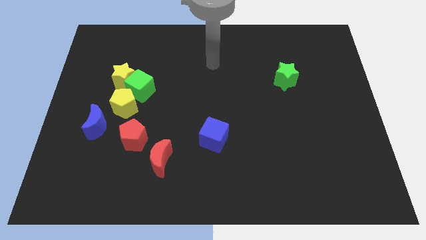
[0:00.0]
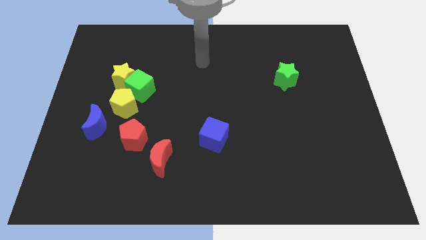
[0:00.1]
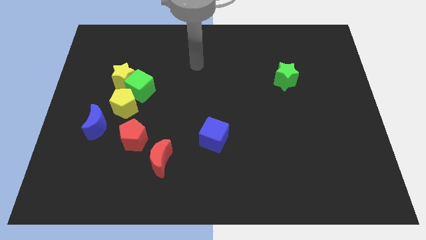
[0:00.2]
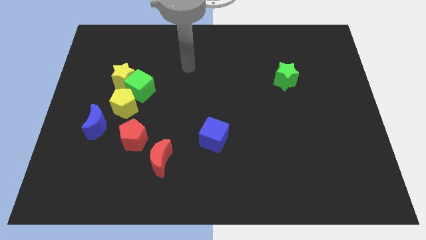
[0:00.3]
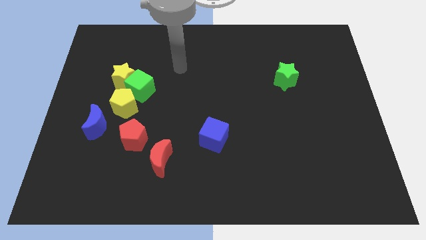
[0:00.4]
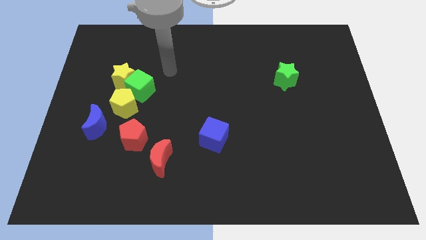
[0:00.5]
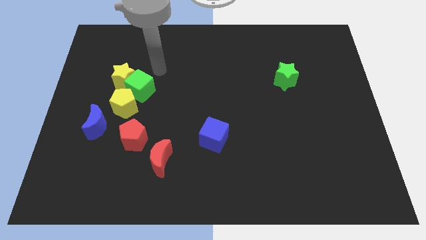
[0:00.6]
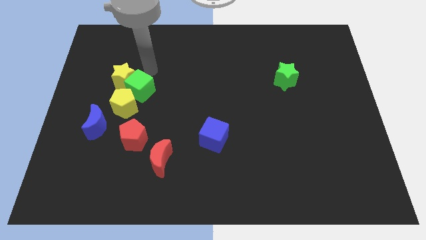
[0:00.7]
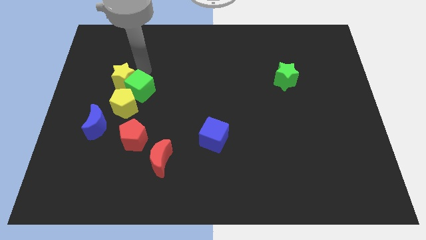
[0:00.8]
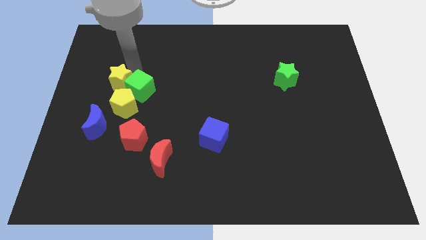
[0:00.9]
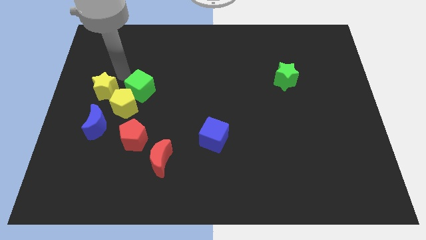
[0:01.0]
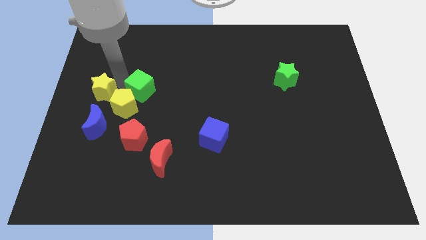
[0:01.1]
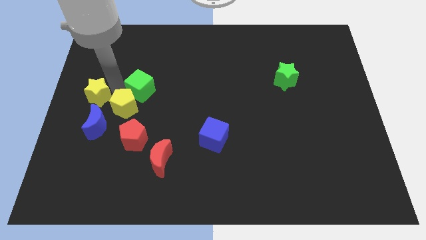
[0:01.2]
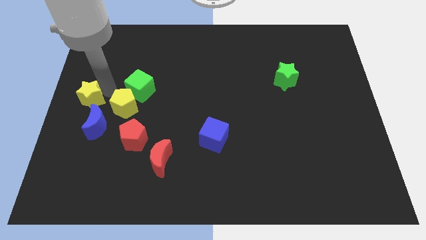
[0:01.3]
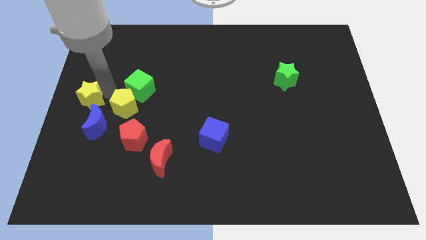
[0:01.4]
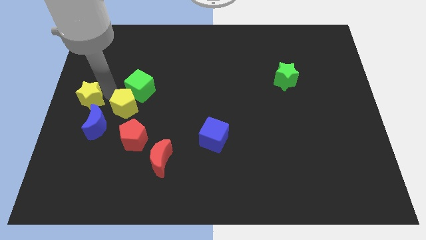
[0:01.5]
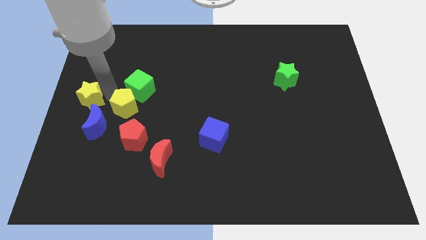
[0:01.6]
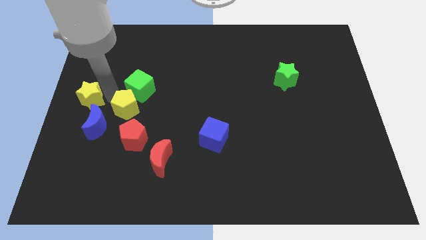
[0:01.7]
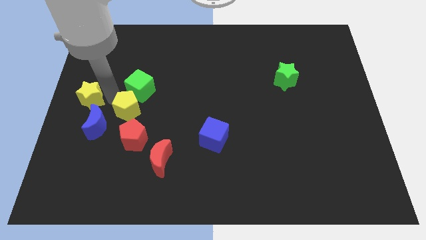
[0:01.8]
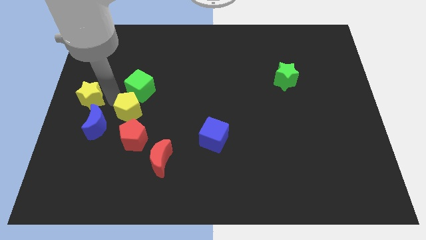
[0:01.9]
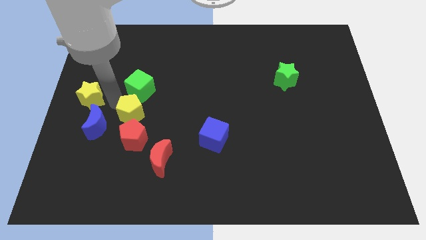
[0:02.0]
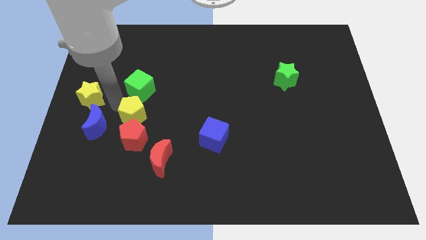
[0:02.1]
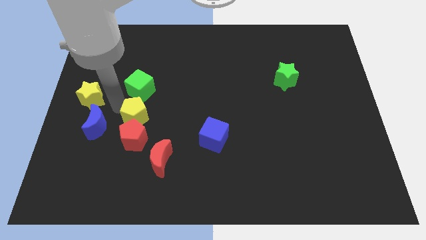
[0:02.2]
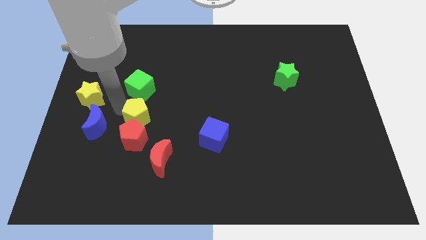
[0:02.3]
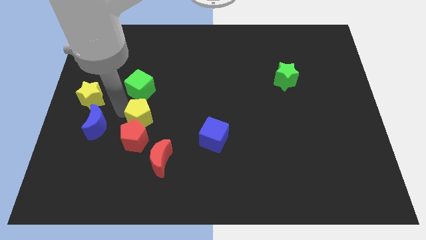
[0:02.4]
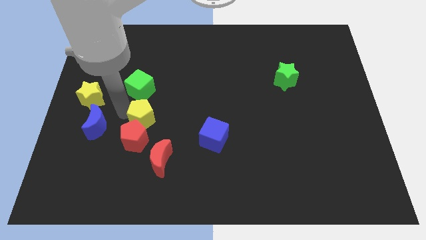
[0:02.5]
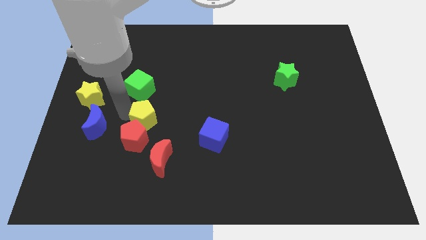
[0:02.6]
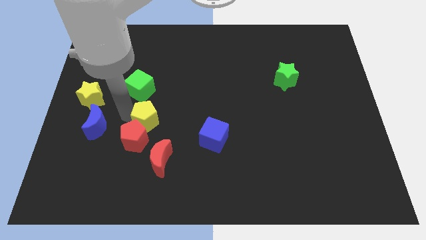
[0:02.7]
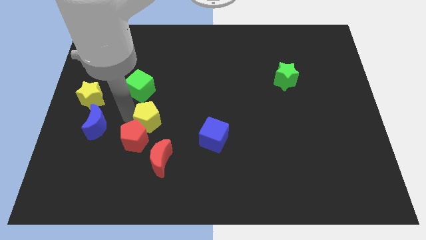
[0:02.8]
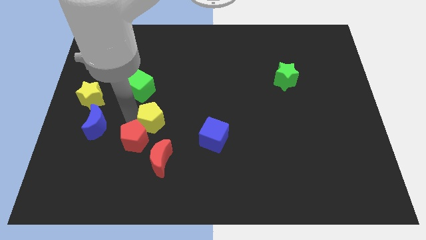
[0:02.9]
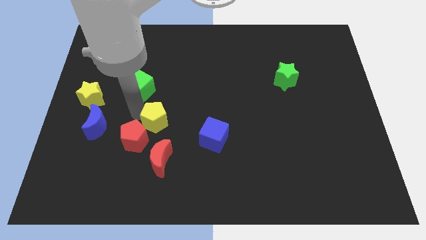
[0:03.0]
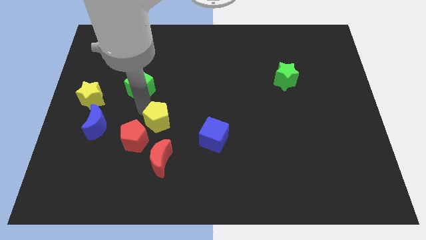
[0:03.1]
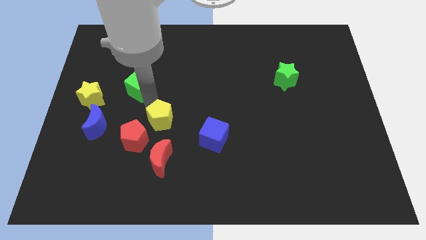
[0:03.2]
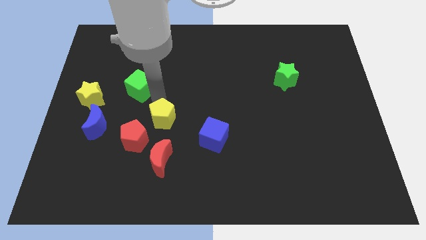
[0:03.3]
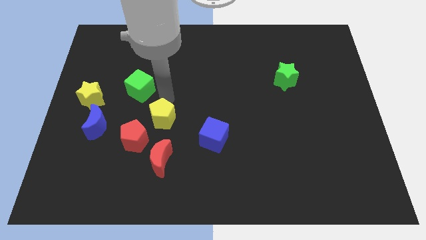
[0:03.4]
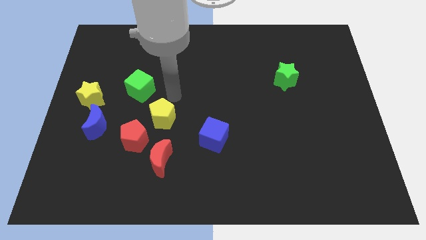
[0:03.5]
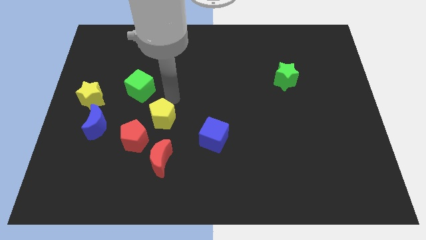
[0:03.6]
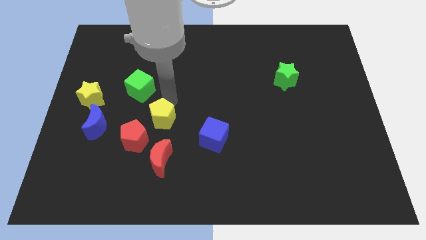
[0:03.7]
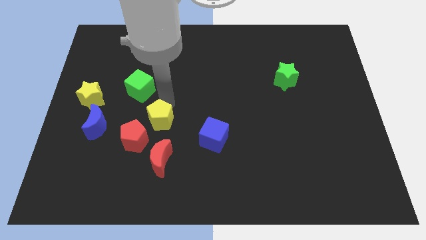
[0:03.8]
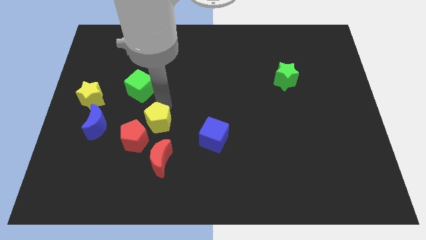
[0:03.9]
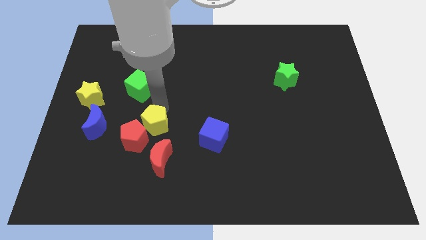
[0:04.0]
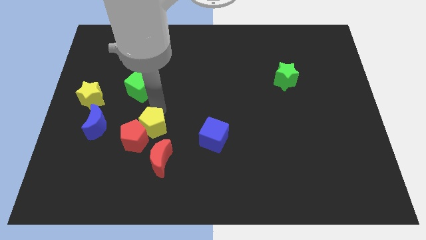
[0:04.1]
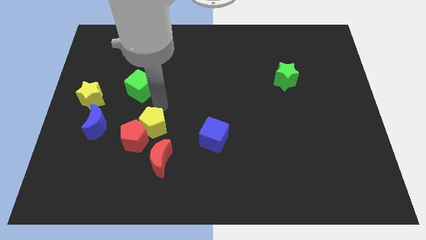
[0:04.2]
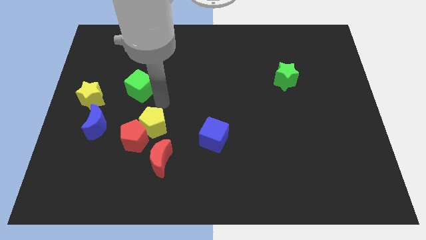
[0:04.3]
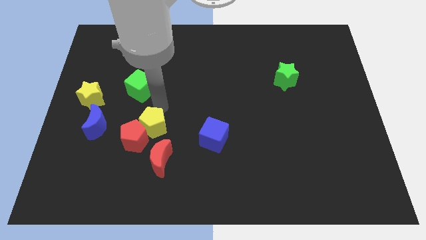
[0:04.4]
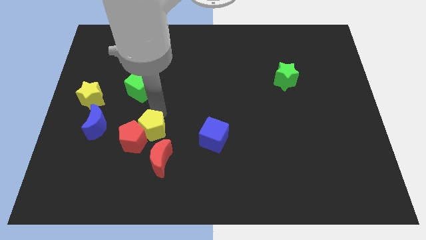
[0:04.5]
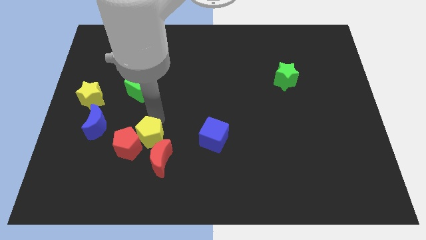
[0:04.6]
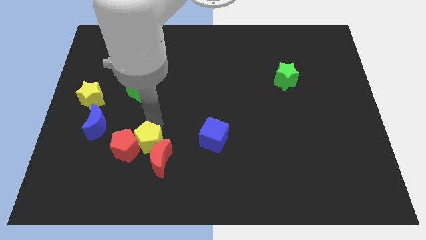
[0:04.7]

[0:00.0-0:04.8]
slightly move the yellow pentagon downwards

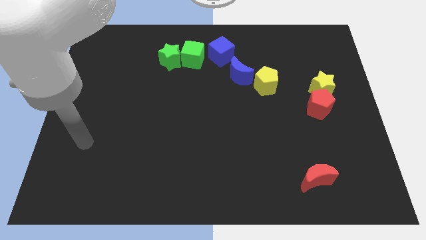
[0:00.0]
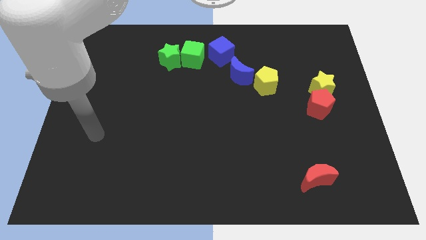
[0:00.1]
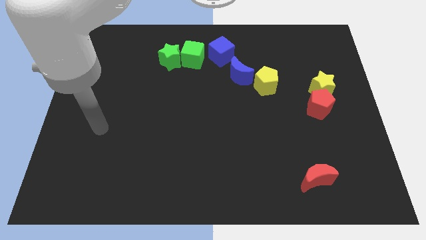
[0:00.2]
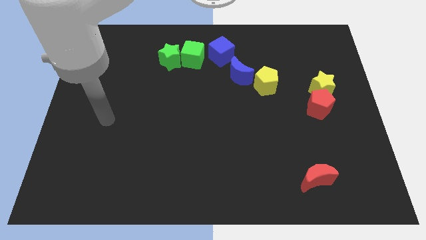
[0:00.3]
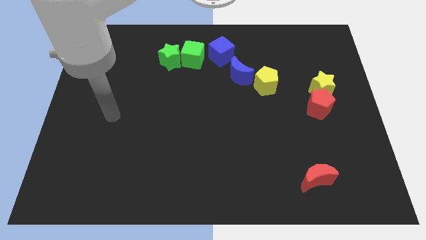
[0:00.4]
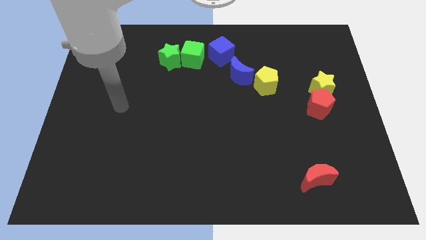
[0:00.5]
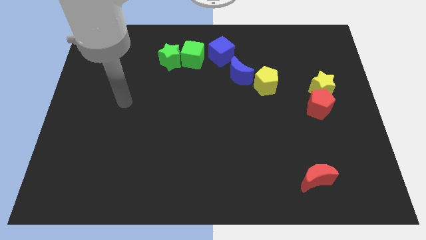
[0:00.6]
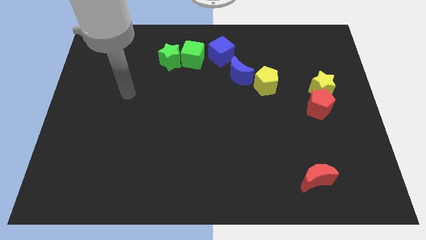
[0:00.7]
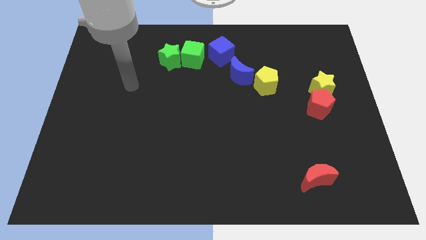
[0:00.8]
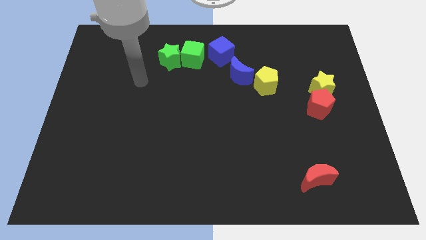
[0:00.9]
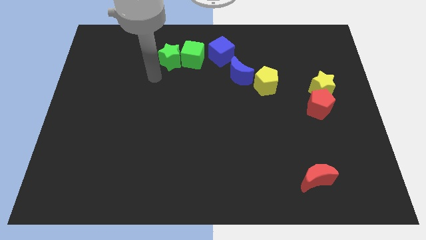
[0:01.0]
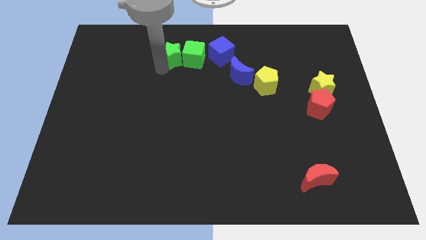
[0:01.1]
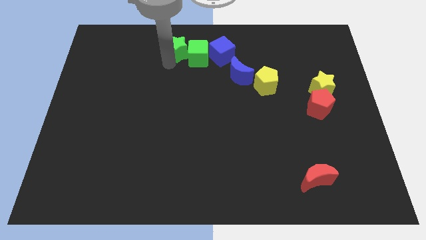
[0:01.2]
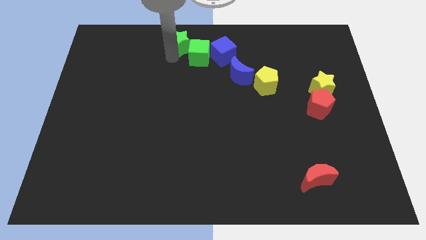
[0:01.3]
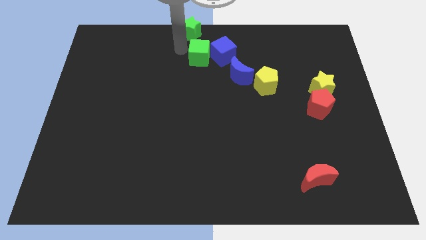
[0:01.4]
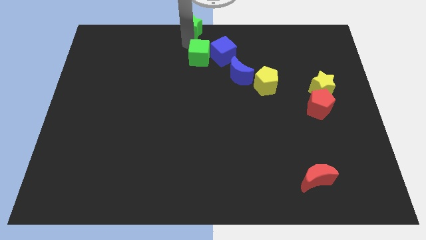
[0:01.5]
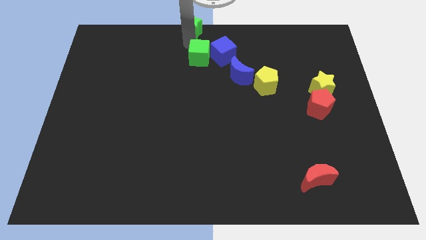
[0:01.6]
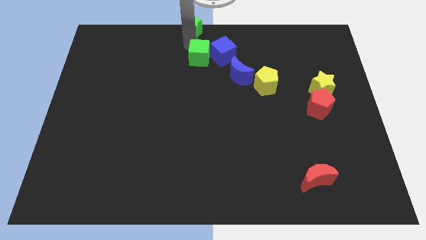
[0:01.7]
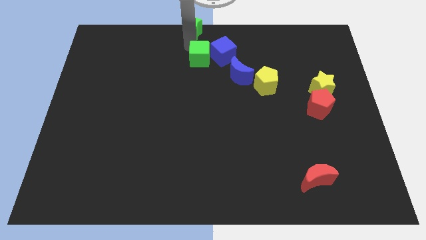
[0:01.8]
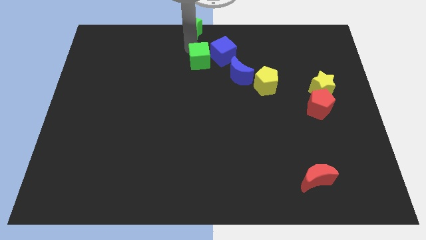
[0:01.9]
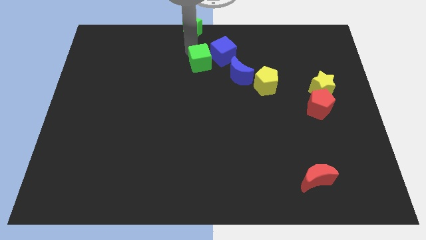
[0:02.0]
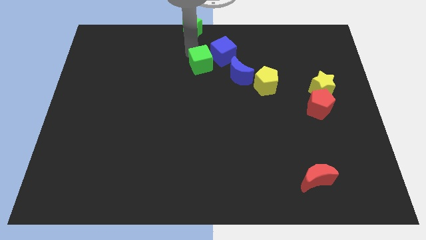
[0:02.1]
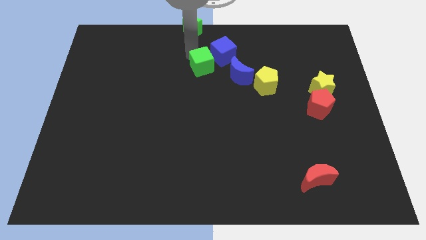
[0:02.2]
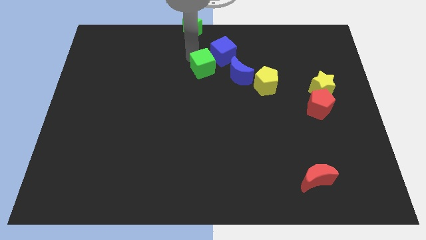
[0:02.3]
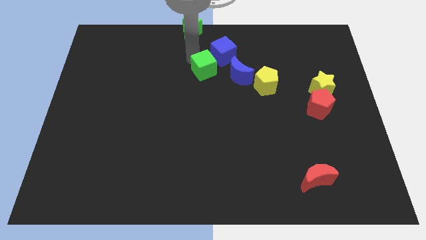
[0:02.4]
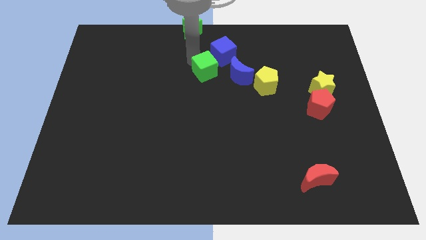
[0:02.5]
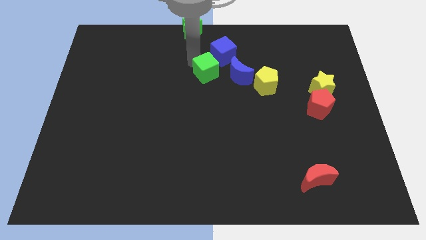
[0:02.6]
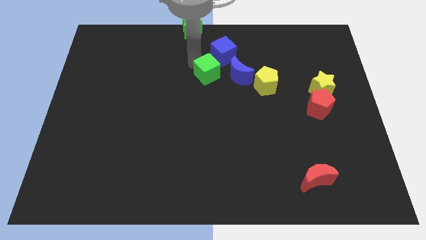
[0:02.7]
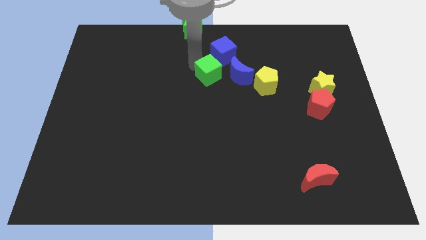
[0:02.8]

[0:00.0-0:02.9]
slightly slide the green cube downwards and right diagonally

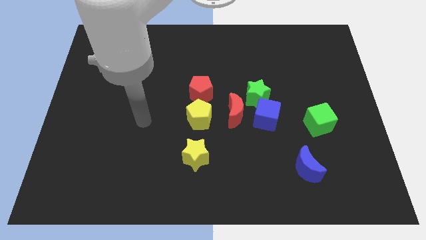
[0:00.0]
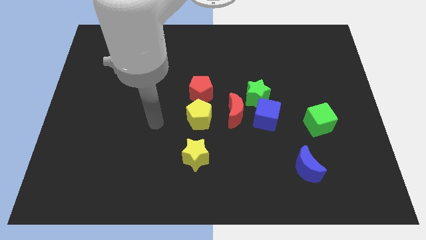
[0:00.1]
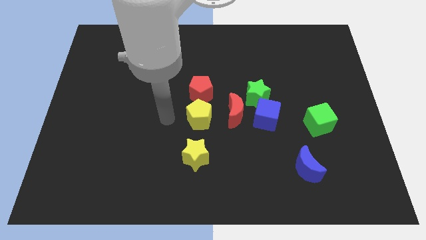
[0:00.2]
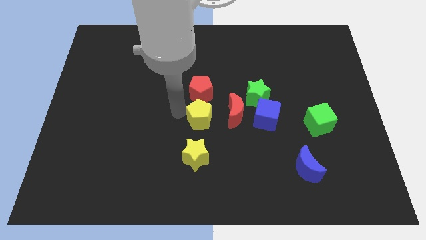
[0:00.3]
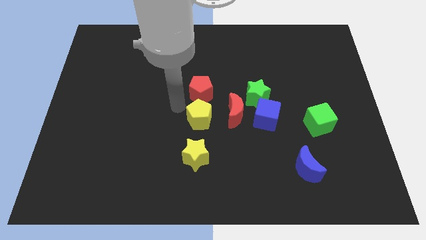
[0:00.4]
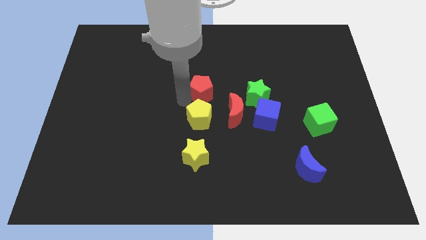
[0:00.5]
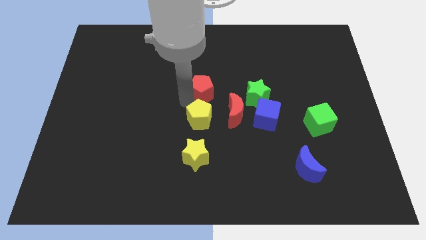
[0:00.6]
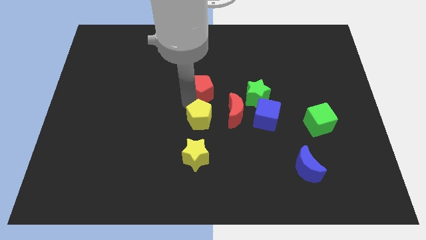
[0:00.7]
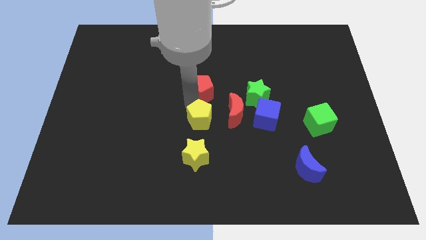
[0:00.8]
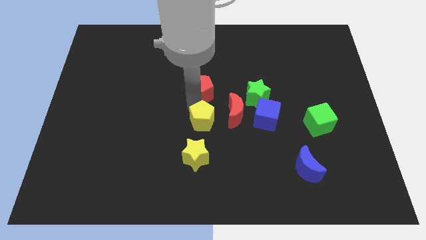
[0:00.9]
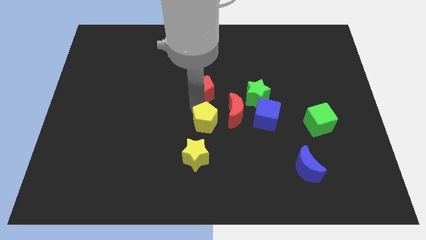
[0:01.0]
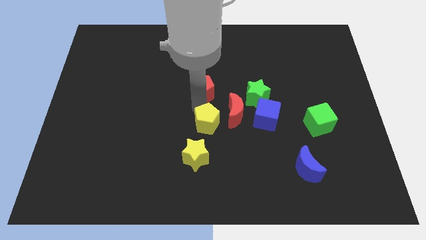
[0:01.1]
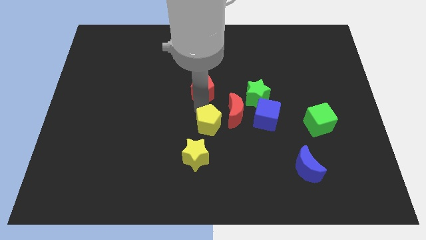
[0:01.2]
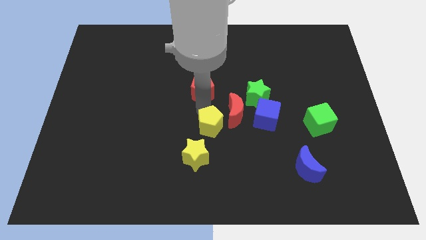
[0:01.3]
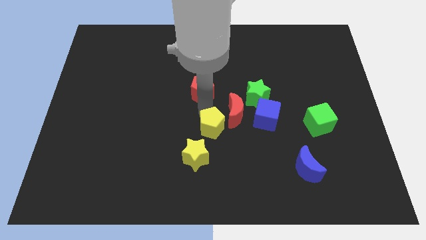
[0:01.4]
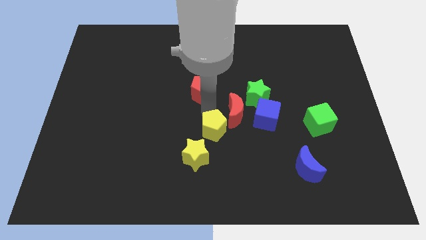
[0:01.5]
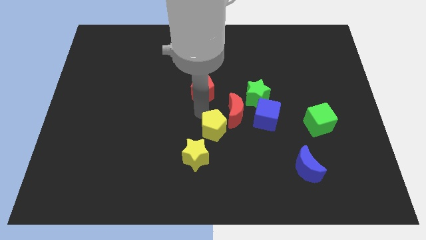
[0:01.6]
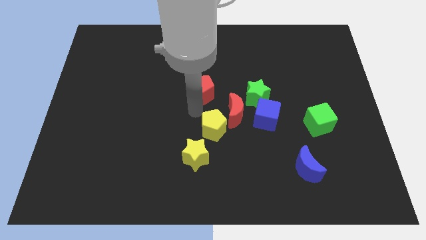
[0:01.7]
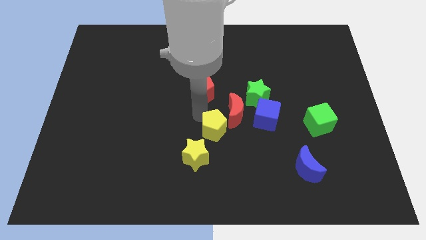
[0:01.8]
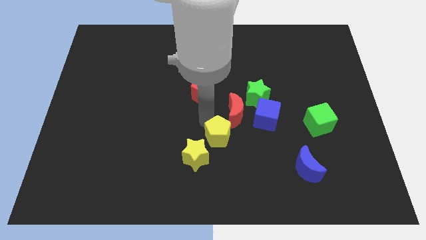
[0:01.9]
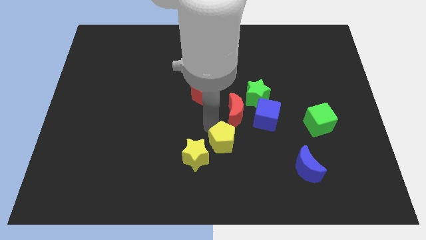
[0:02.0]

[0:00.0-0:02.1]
slightly slide the yellow pentagon diagonally down and right
